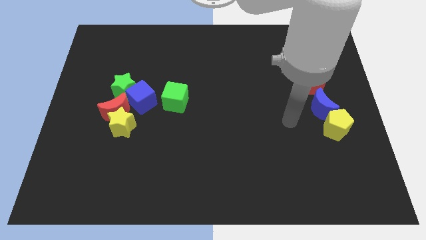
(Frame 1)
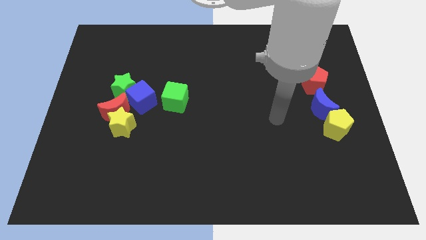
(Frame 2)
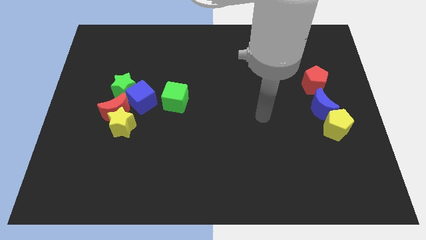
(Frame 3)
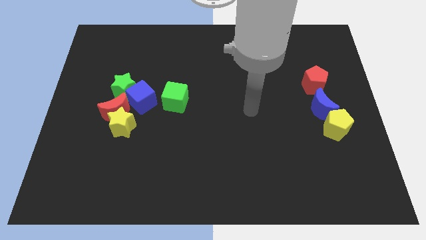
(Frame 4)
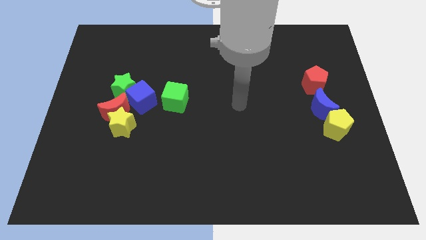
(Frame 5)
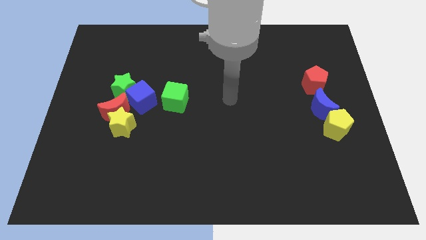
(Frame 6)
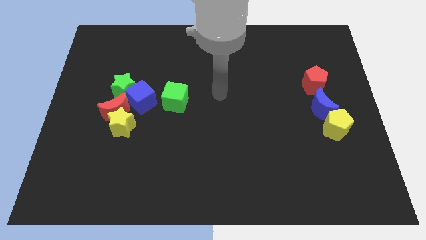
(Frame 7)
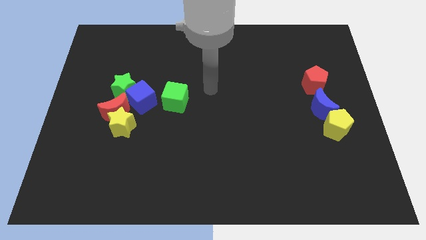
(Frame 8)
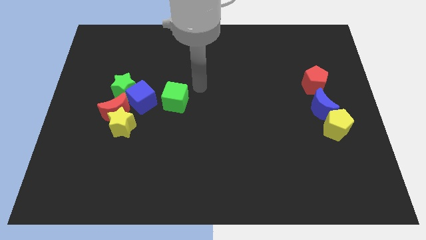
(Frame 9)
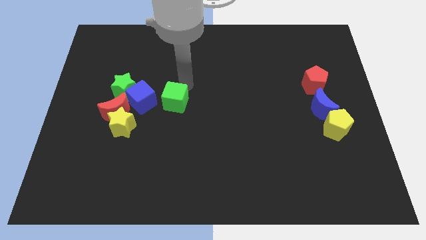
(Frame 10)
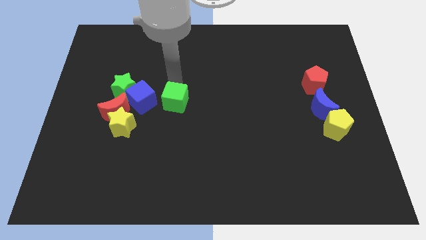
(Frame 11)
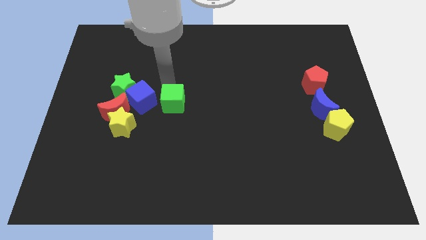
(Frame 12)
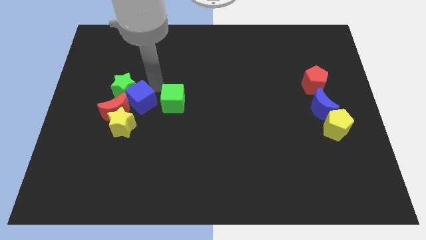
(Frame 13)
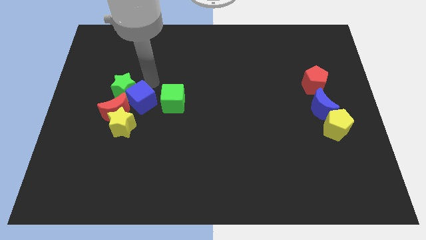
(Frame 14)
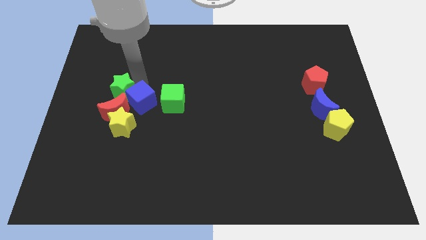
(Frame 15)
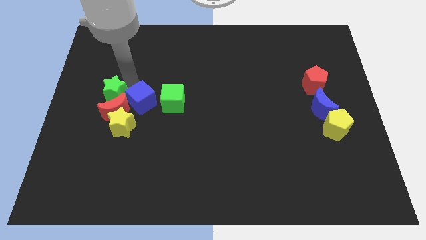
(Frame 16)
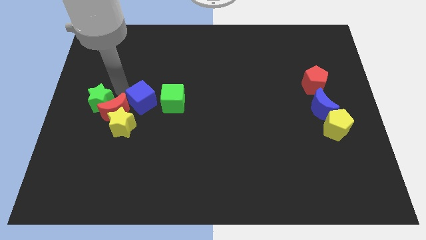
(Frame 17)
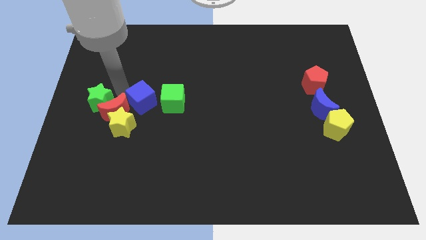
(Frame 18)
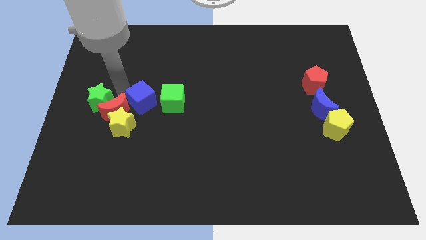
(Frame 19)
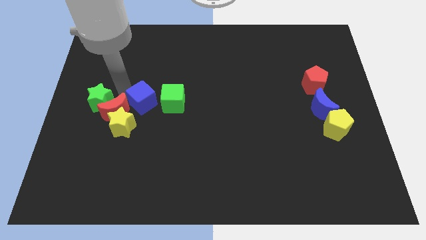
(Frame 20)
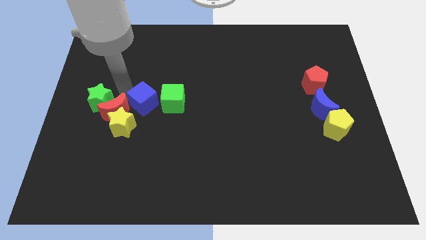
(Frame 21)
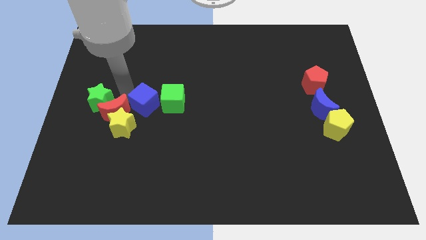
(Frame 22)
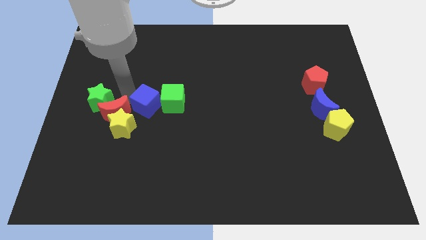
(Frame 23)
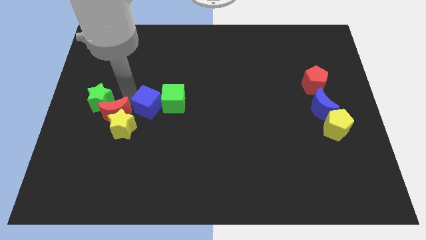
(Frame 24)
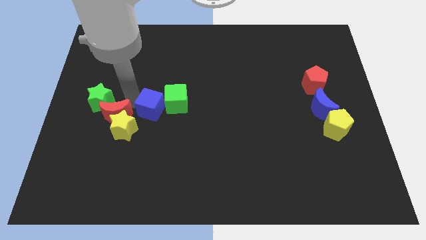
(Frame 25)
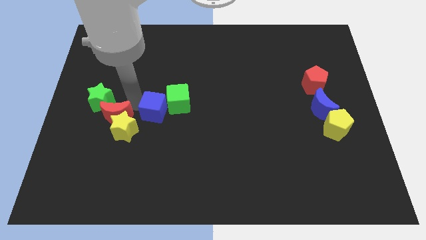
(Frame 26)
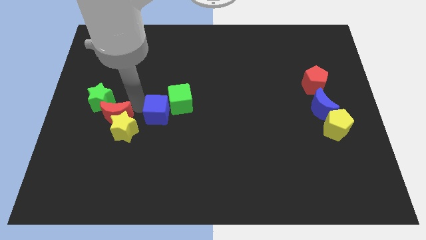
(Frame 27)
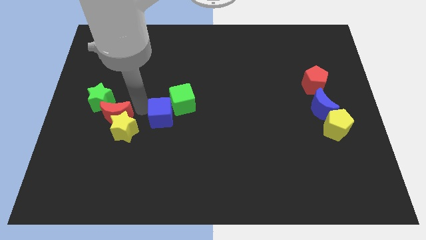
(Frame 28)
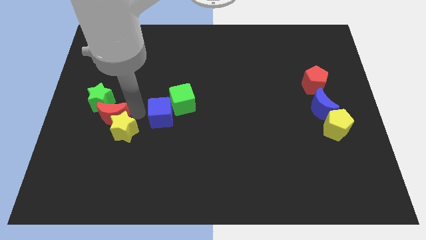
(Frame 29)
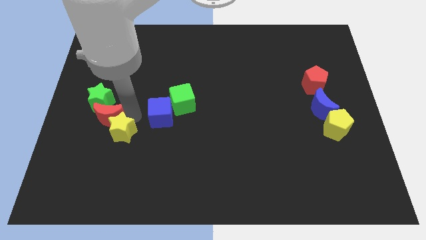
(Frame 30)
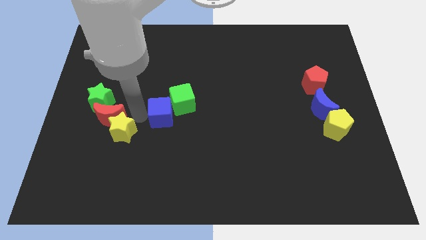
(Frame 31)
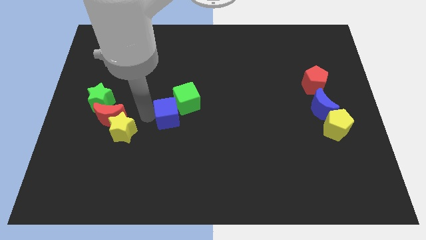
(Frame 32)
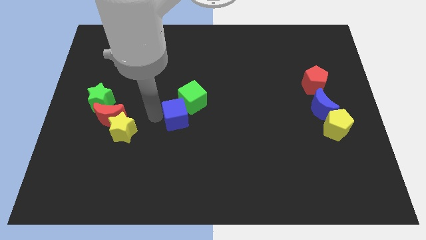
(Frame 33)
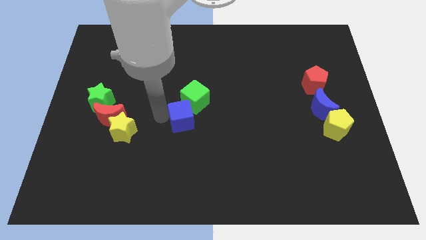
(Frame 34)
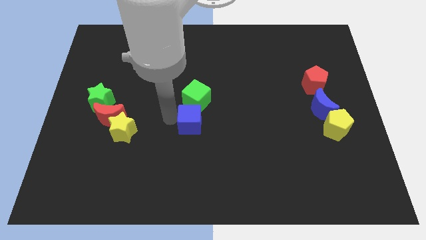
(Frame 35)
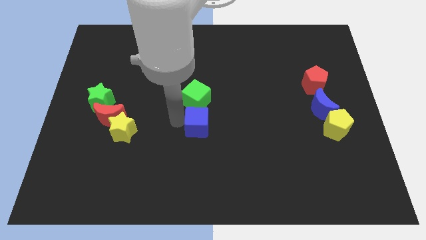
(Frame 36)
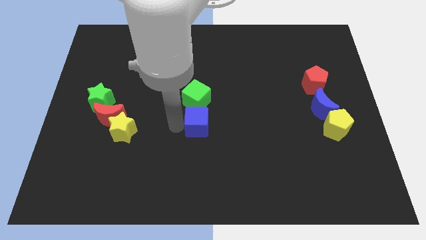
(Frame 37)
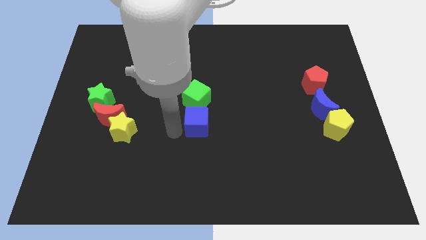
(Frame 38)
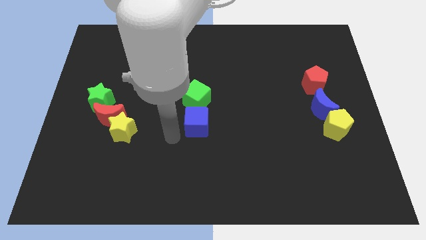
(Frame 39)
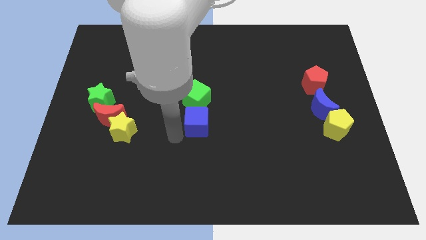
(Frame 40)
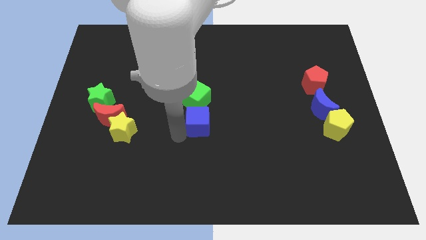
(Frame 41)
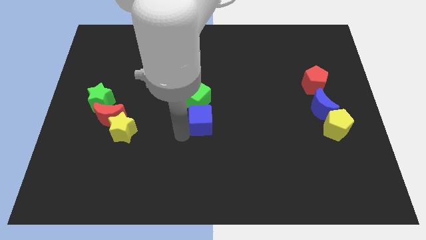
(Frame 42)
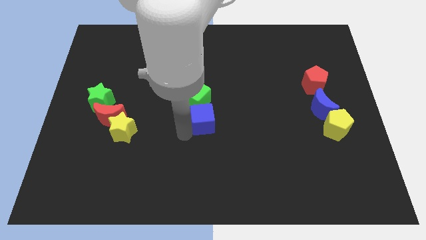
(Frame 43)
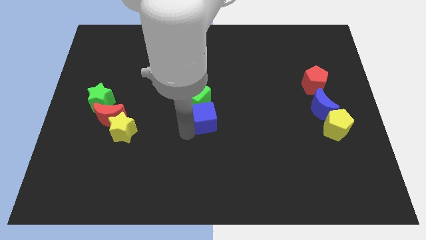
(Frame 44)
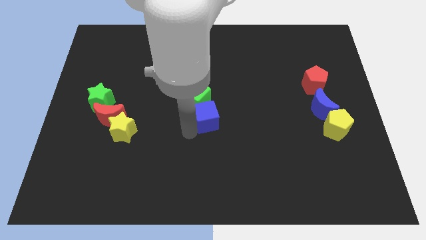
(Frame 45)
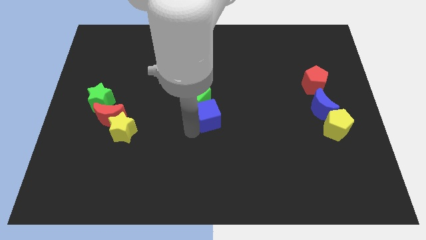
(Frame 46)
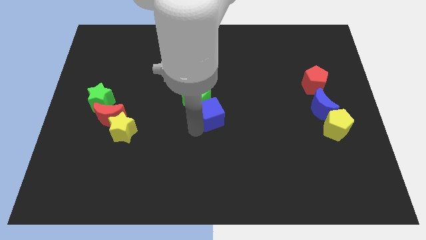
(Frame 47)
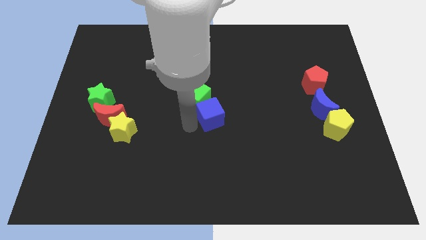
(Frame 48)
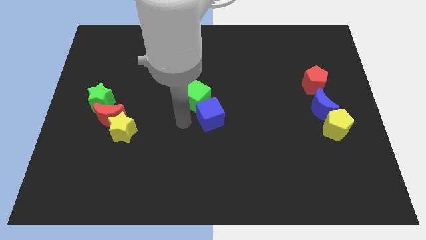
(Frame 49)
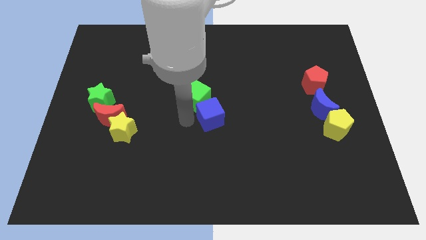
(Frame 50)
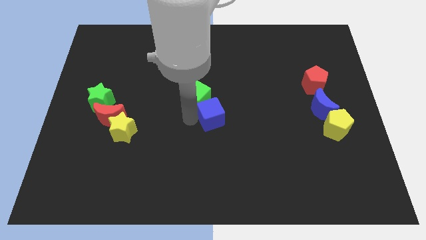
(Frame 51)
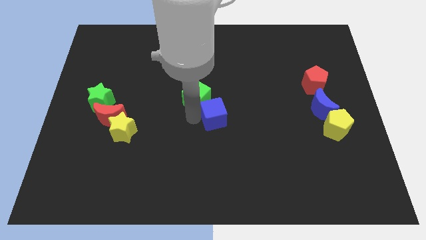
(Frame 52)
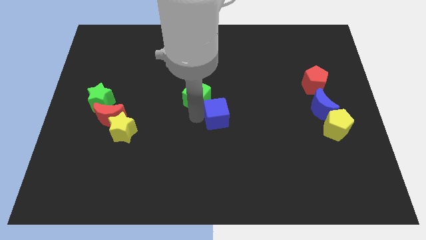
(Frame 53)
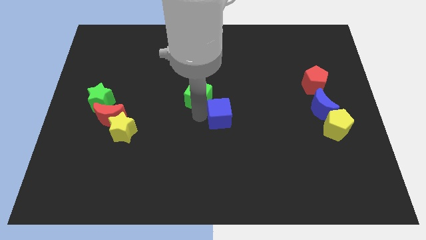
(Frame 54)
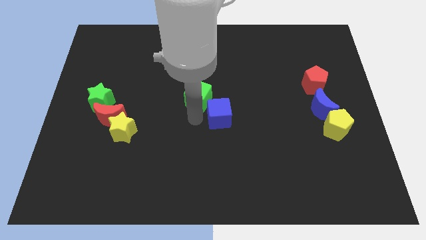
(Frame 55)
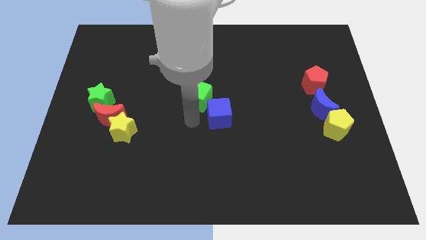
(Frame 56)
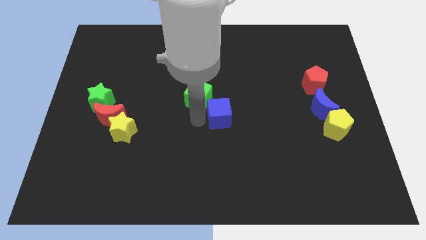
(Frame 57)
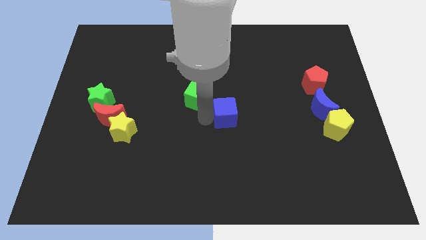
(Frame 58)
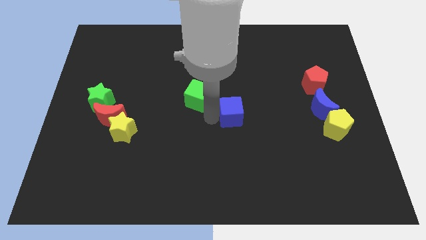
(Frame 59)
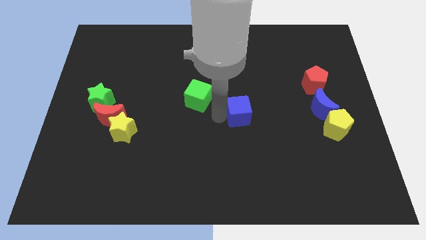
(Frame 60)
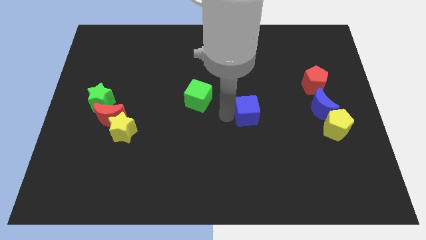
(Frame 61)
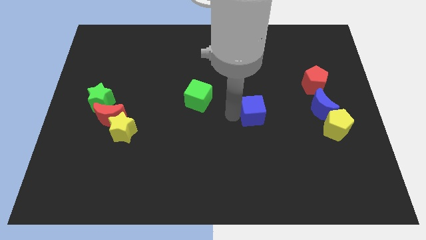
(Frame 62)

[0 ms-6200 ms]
put the blue cube to the left of the blue moon

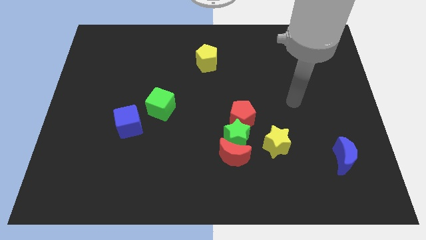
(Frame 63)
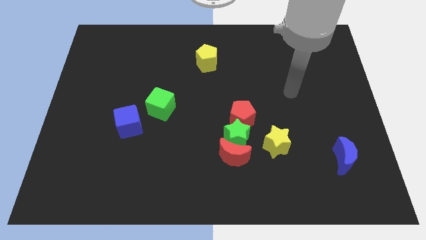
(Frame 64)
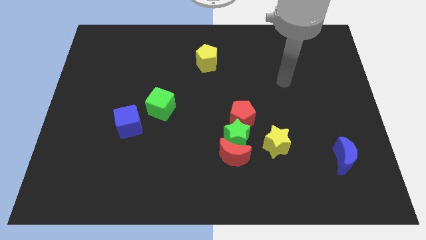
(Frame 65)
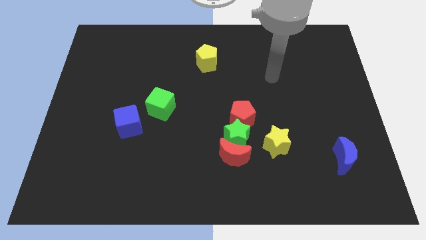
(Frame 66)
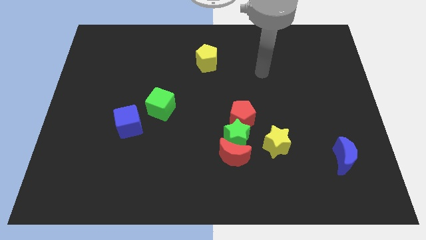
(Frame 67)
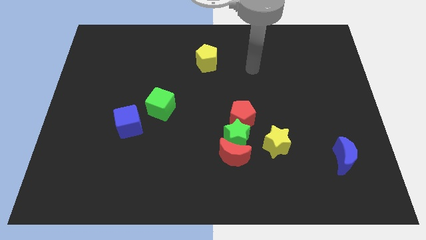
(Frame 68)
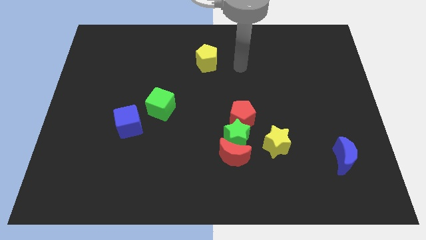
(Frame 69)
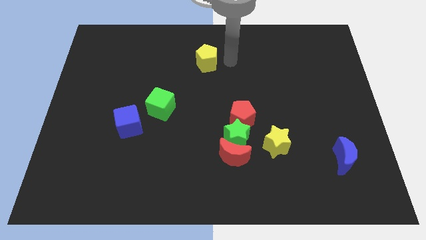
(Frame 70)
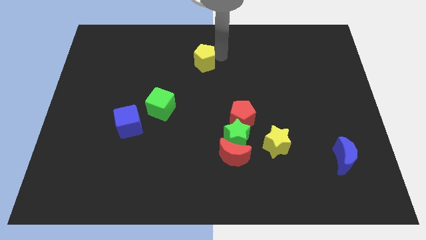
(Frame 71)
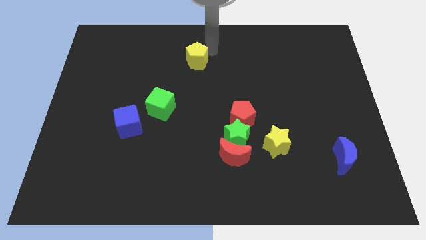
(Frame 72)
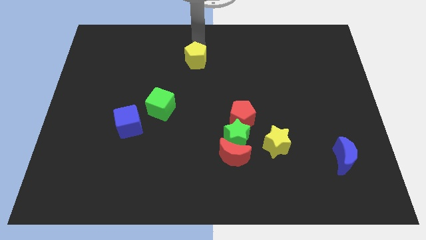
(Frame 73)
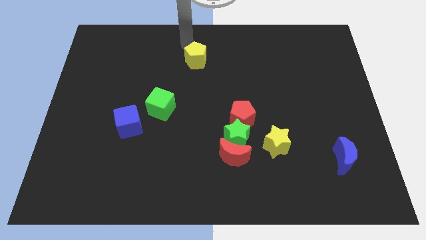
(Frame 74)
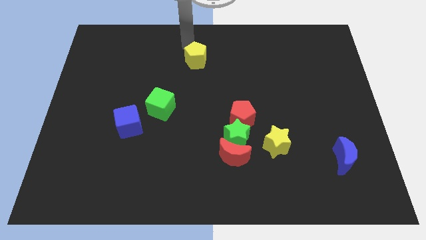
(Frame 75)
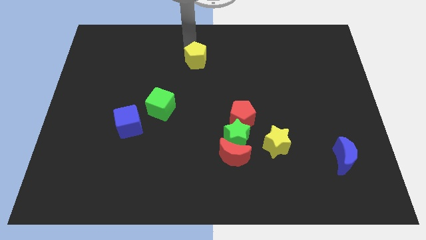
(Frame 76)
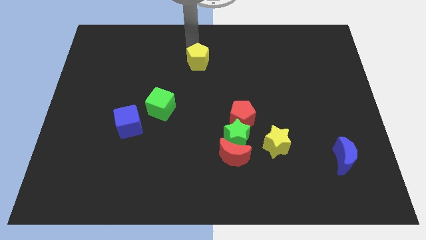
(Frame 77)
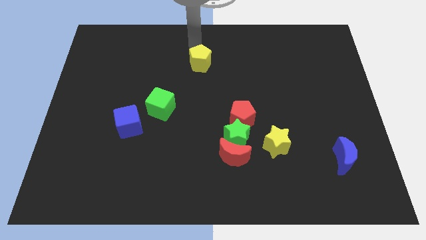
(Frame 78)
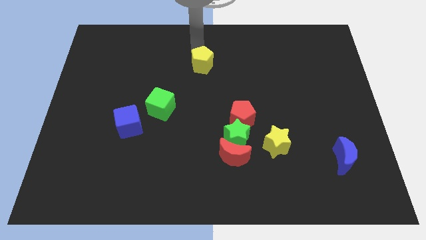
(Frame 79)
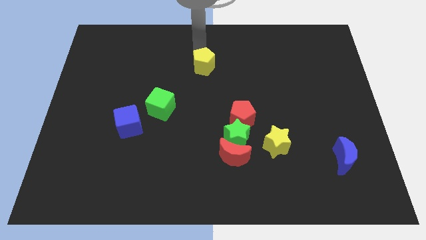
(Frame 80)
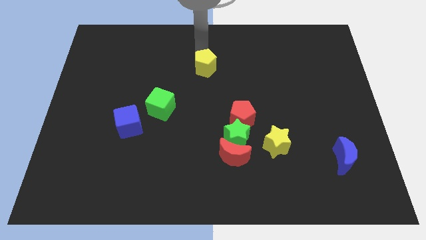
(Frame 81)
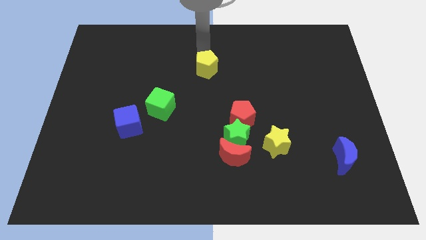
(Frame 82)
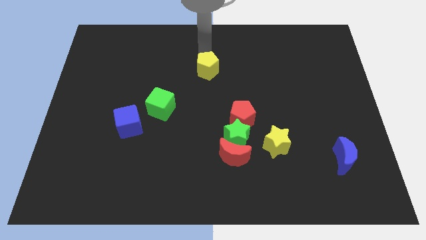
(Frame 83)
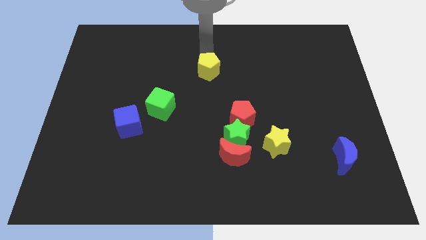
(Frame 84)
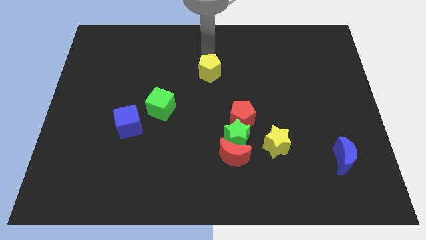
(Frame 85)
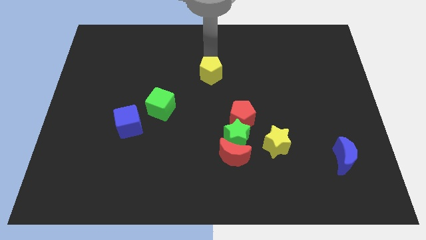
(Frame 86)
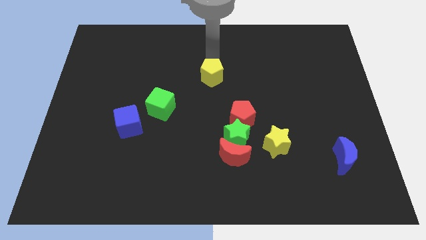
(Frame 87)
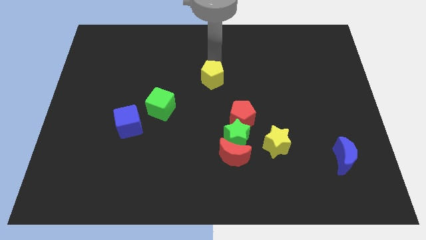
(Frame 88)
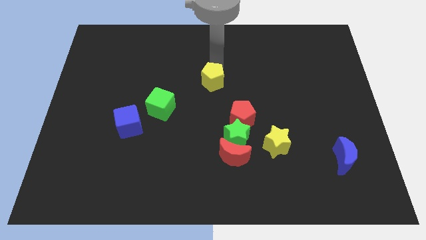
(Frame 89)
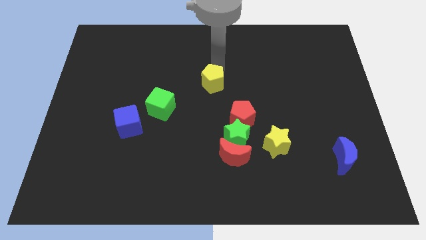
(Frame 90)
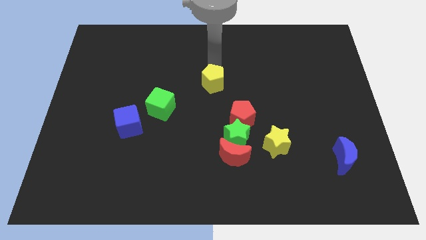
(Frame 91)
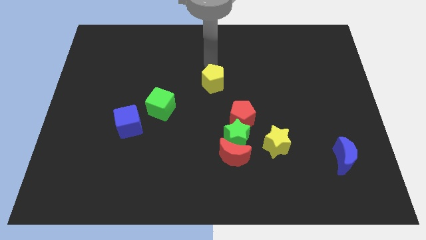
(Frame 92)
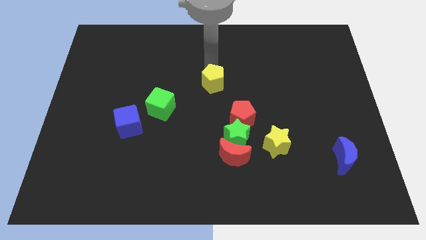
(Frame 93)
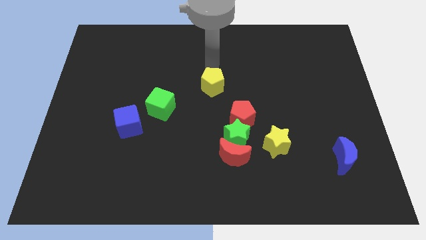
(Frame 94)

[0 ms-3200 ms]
move the yellow pentagon to the top left of the red pentagon
